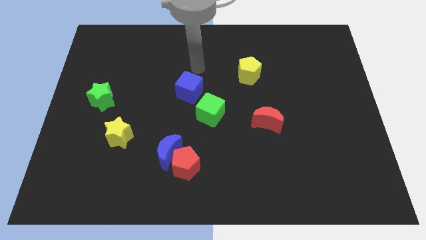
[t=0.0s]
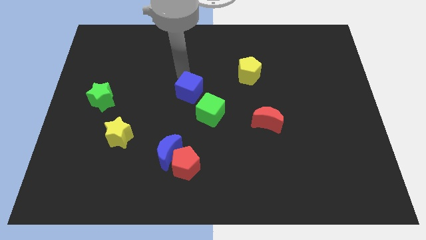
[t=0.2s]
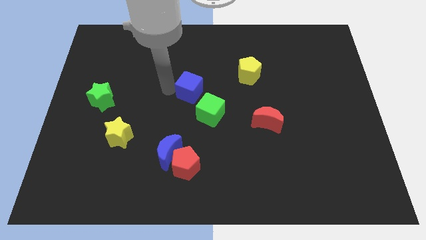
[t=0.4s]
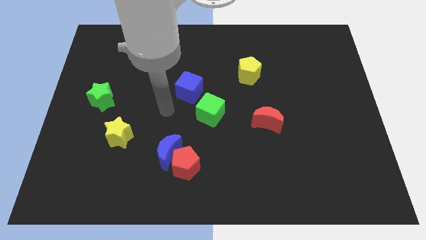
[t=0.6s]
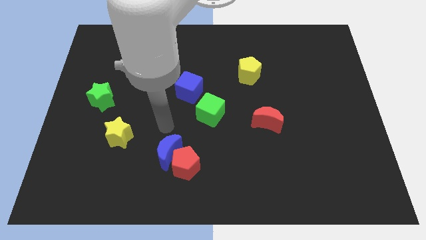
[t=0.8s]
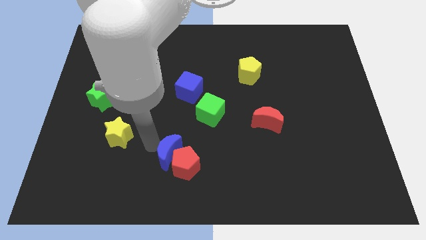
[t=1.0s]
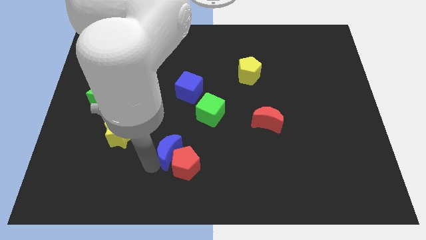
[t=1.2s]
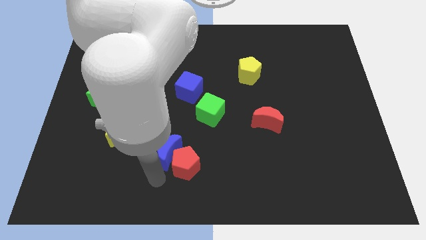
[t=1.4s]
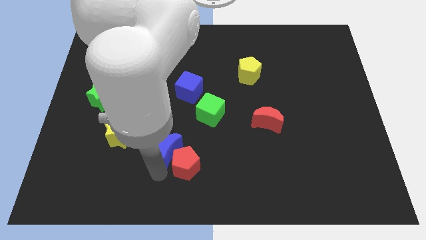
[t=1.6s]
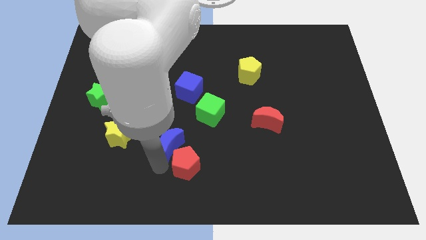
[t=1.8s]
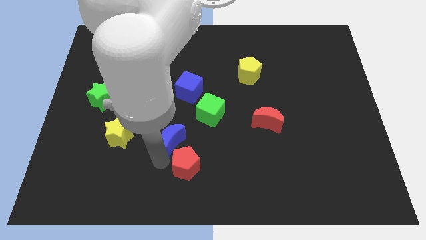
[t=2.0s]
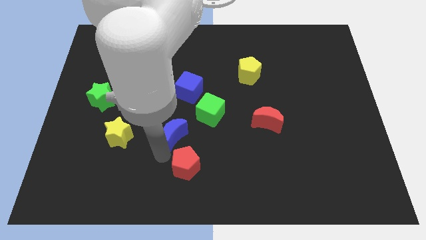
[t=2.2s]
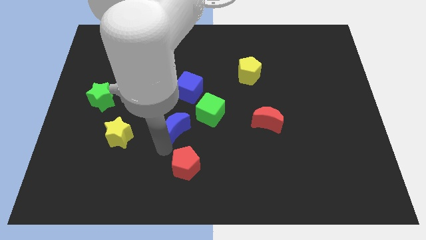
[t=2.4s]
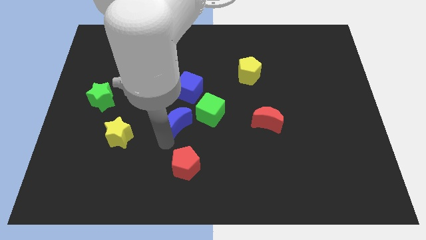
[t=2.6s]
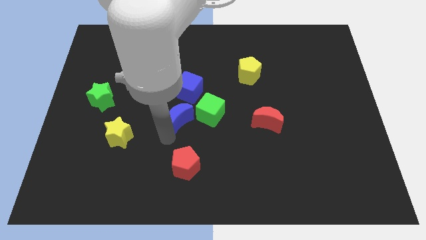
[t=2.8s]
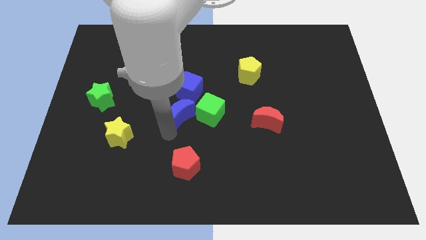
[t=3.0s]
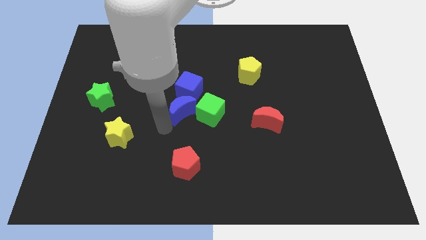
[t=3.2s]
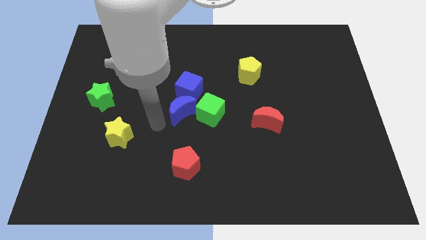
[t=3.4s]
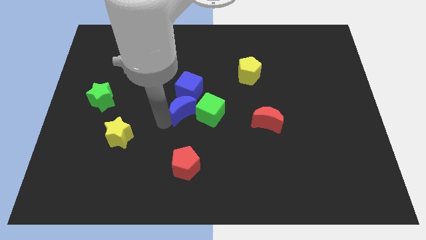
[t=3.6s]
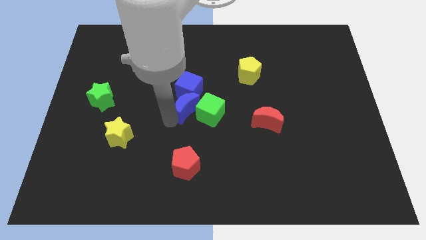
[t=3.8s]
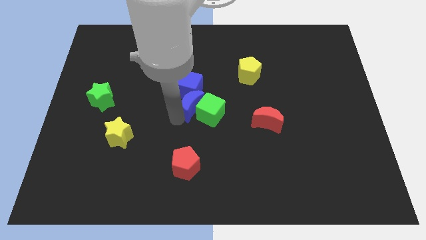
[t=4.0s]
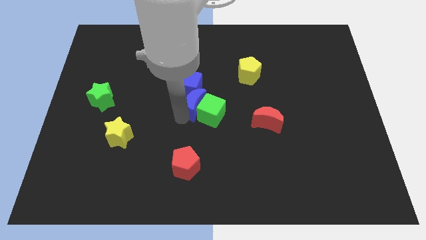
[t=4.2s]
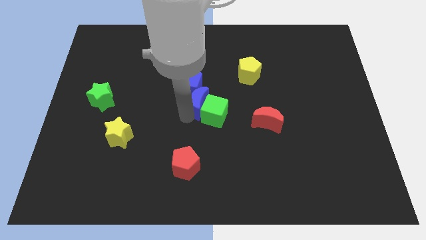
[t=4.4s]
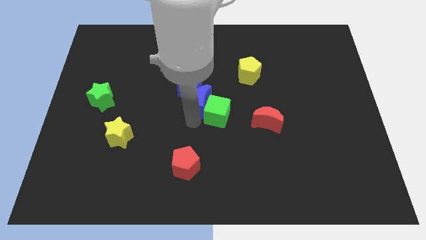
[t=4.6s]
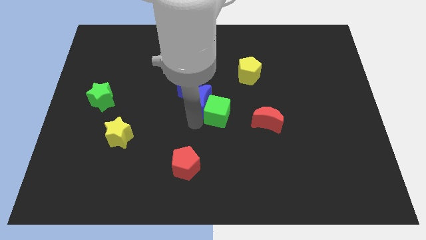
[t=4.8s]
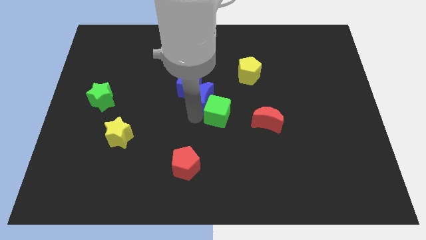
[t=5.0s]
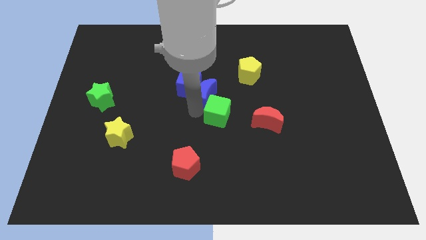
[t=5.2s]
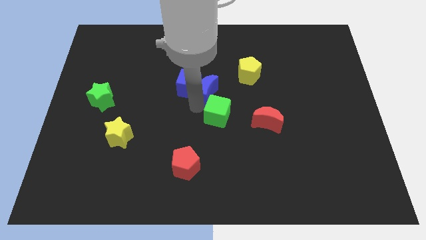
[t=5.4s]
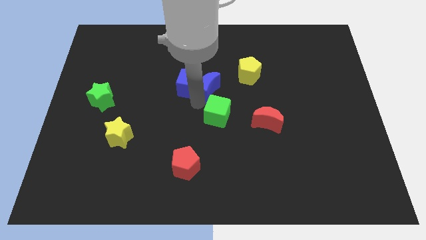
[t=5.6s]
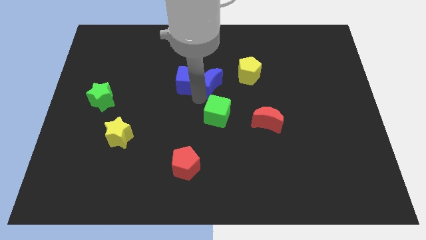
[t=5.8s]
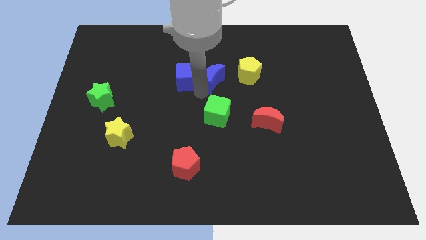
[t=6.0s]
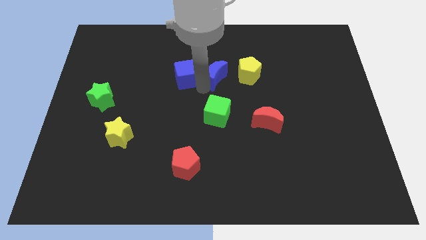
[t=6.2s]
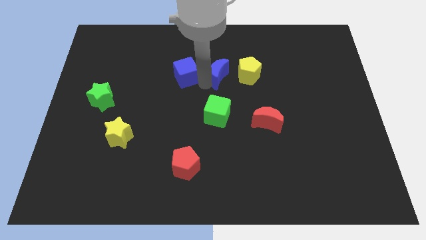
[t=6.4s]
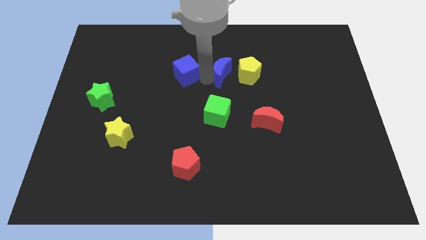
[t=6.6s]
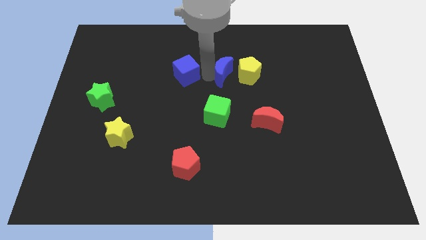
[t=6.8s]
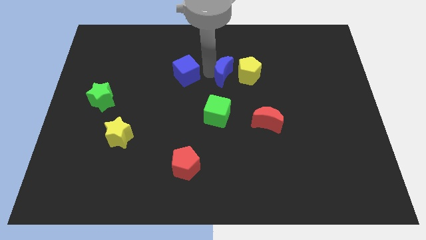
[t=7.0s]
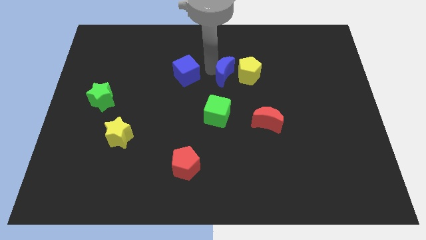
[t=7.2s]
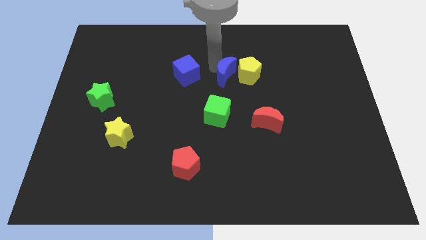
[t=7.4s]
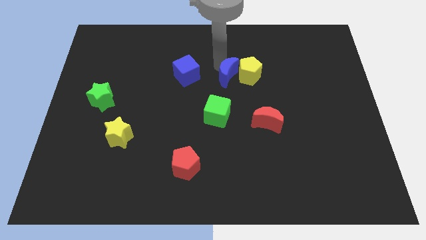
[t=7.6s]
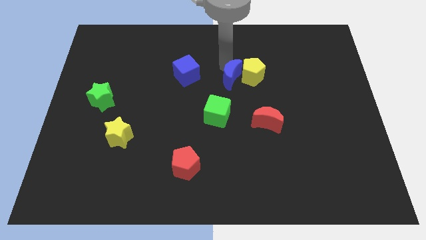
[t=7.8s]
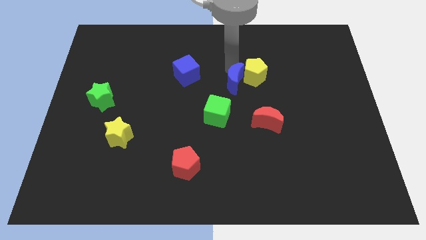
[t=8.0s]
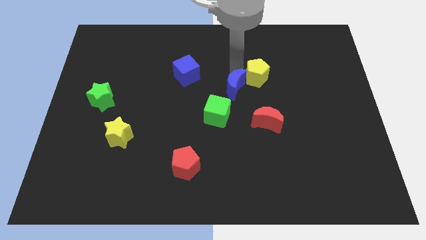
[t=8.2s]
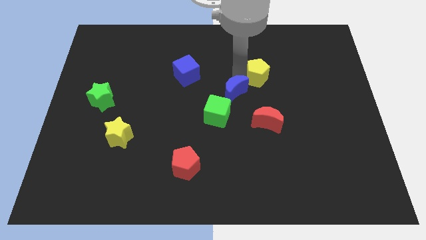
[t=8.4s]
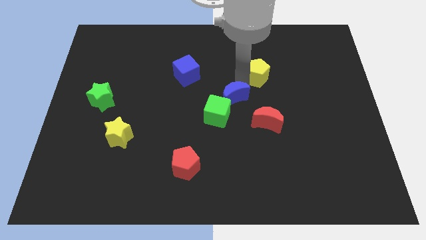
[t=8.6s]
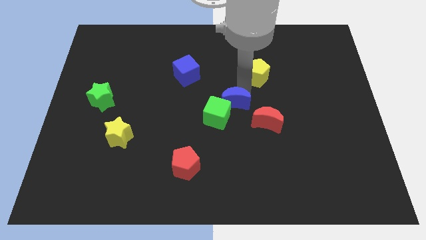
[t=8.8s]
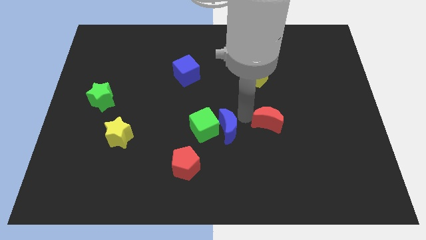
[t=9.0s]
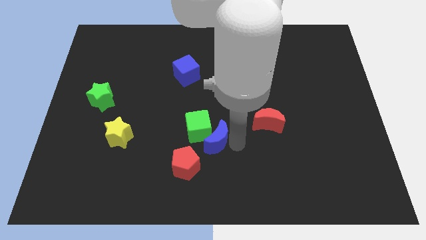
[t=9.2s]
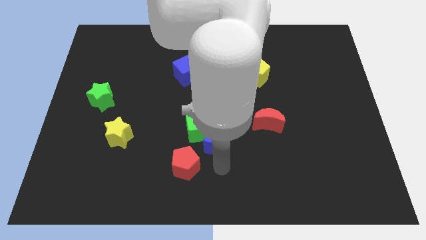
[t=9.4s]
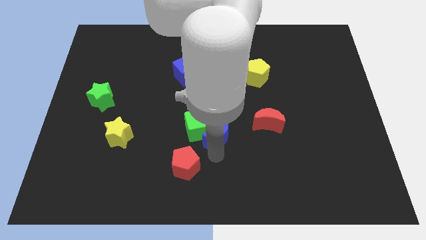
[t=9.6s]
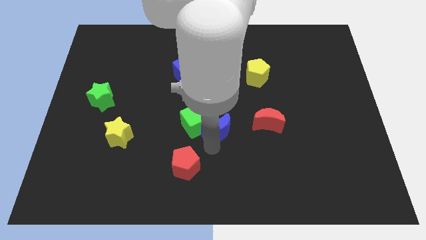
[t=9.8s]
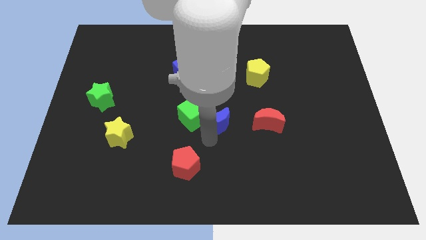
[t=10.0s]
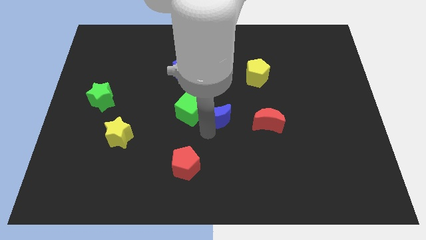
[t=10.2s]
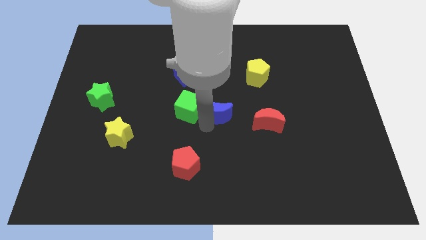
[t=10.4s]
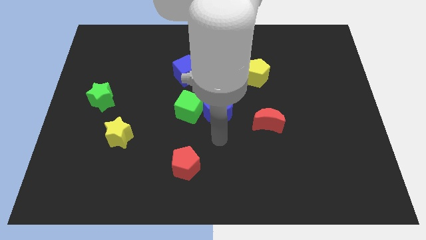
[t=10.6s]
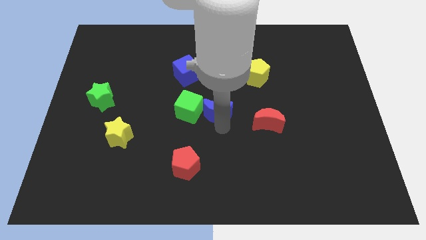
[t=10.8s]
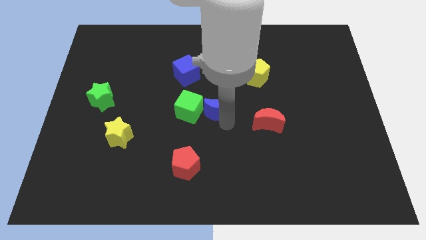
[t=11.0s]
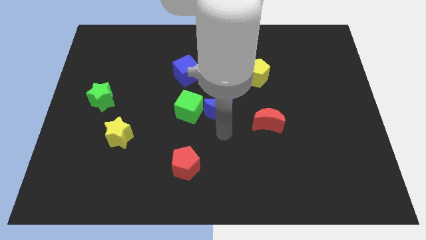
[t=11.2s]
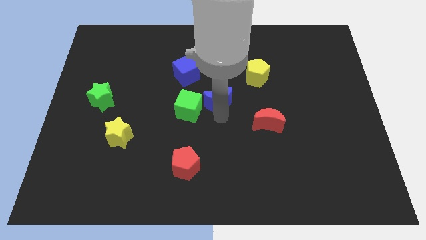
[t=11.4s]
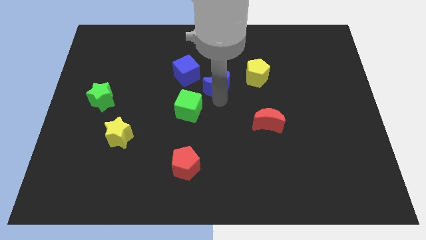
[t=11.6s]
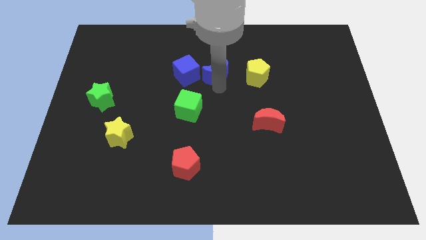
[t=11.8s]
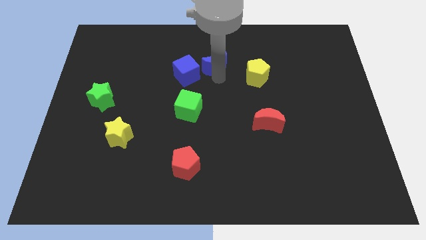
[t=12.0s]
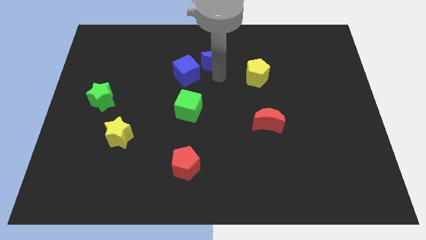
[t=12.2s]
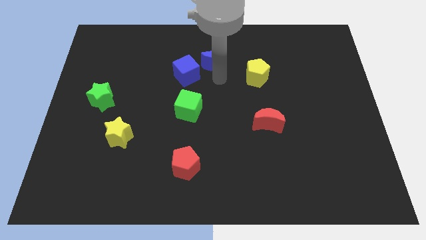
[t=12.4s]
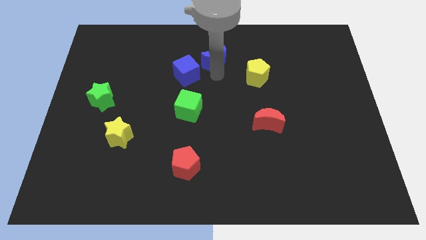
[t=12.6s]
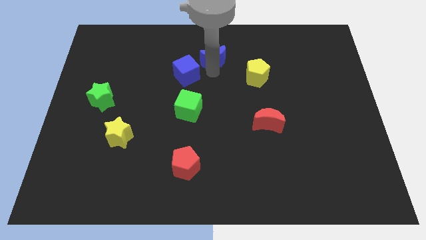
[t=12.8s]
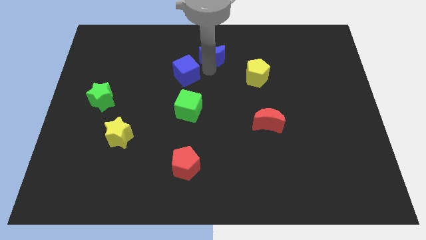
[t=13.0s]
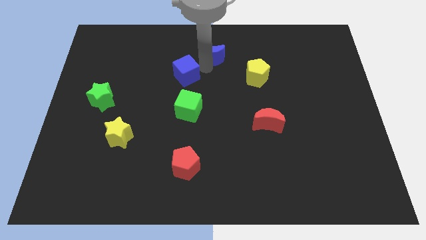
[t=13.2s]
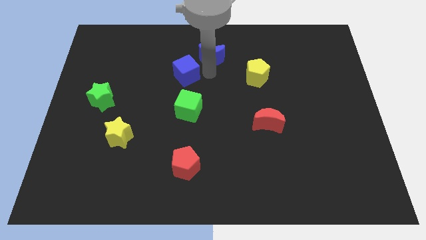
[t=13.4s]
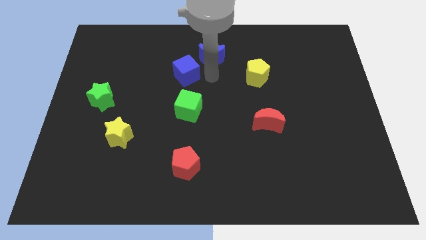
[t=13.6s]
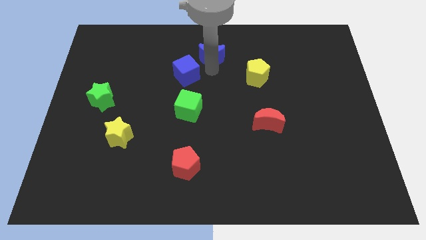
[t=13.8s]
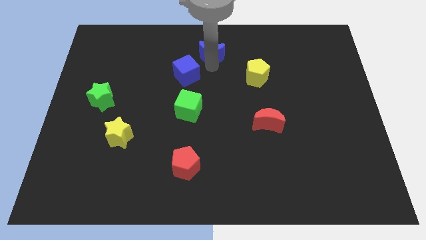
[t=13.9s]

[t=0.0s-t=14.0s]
slide the blue moon to the top
